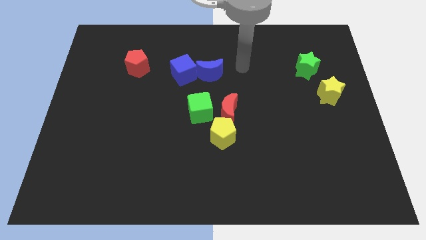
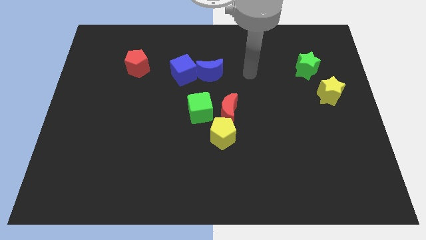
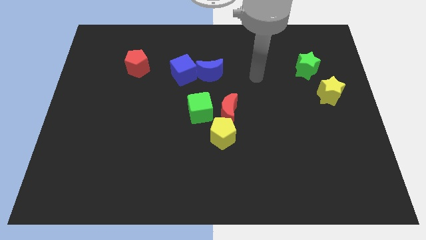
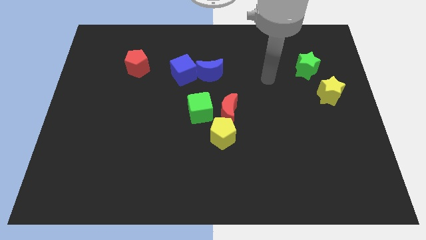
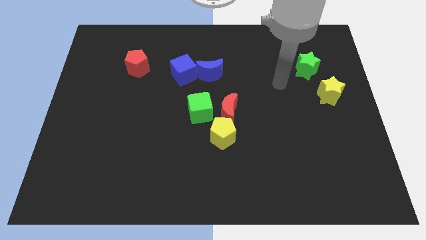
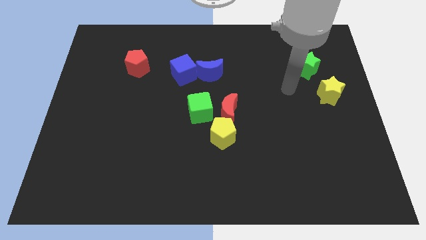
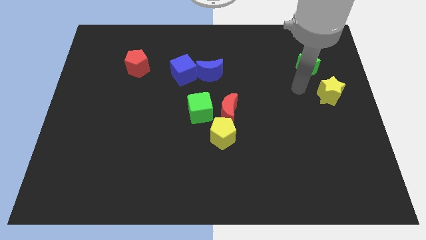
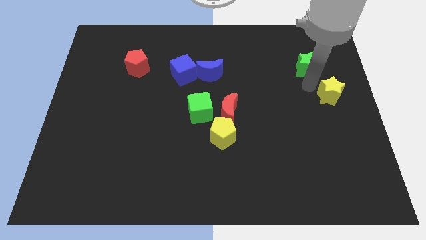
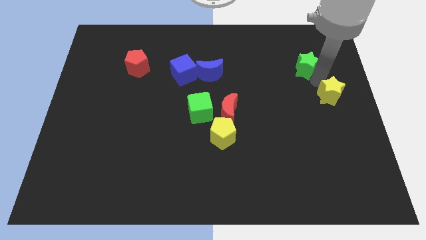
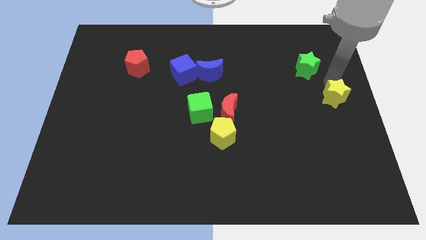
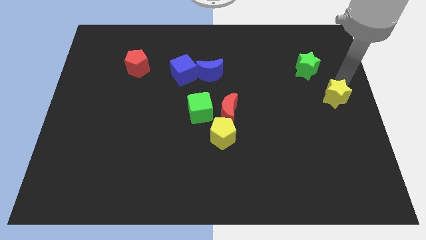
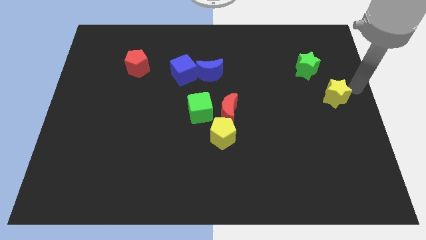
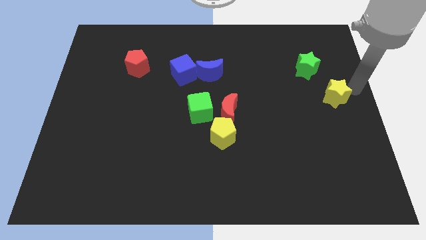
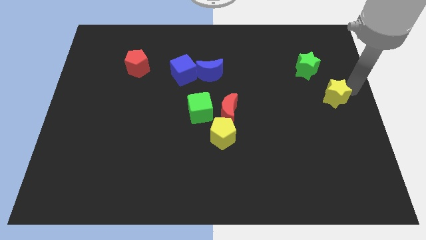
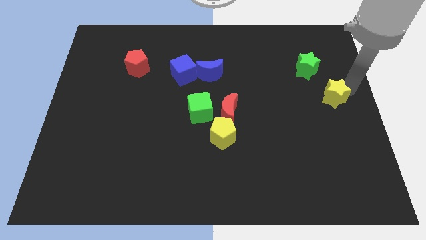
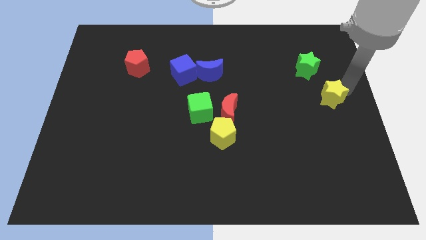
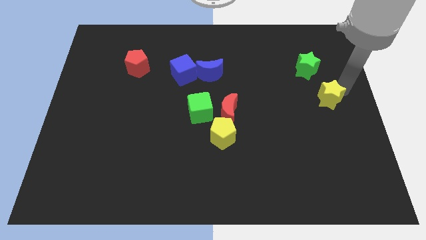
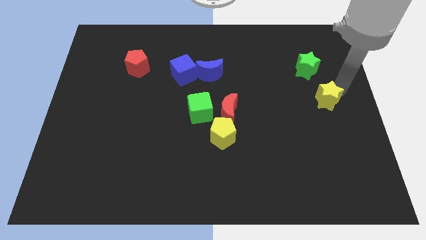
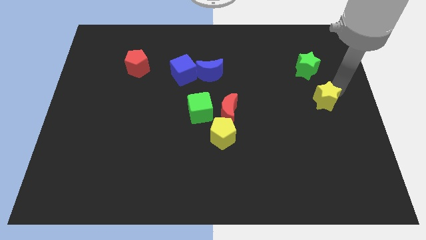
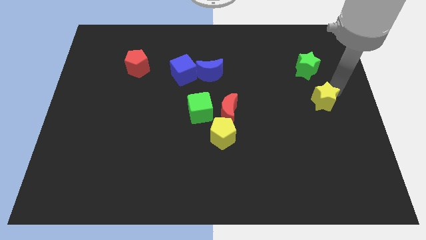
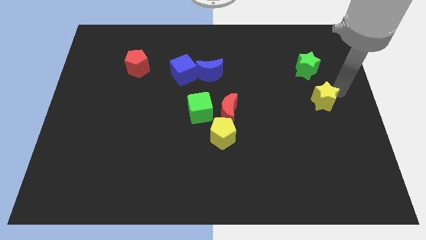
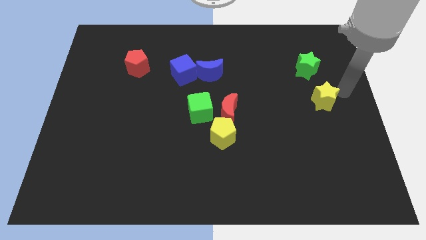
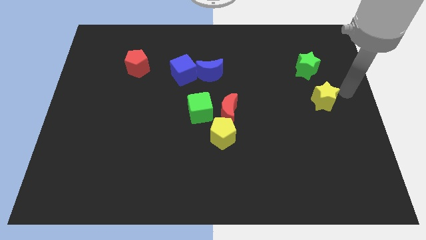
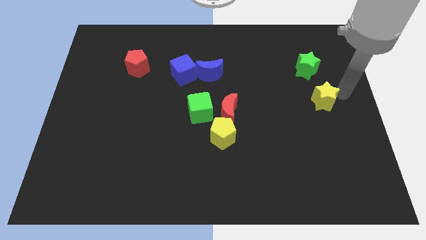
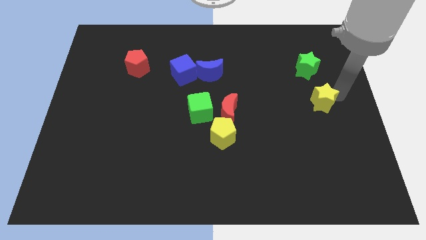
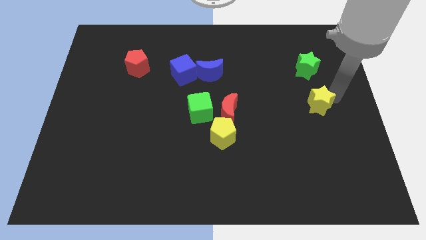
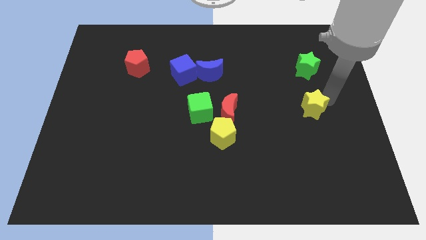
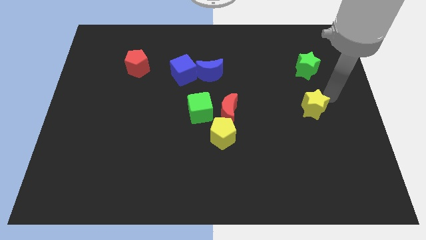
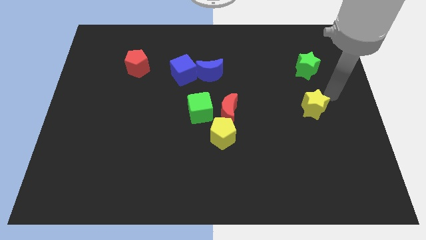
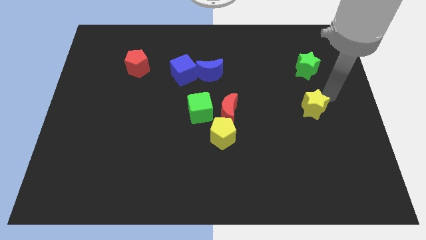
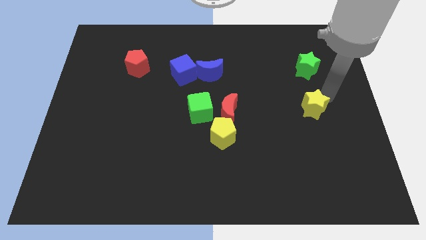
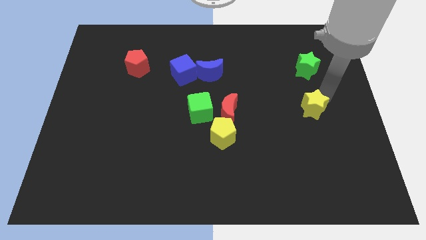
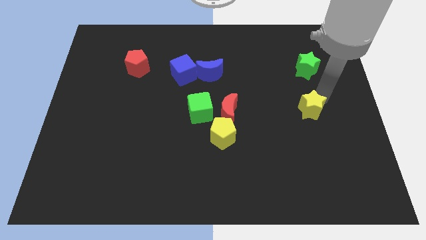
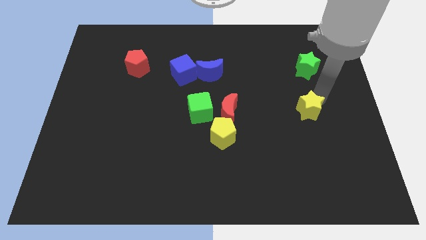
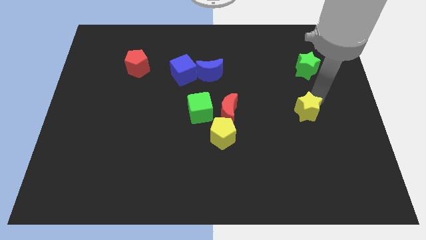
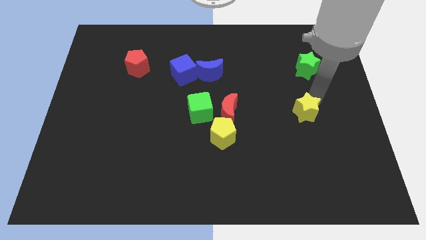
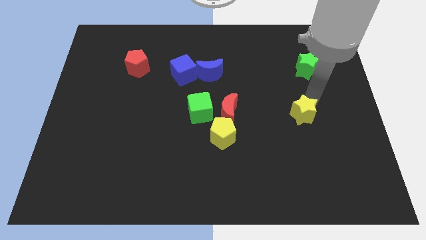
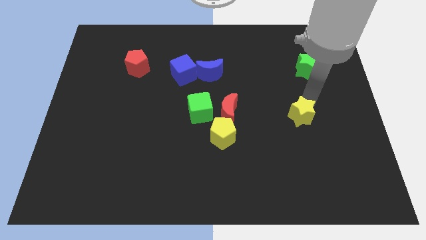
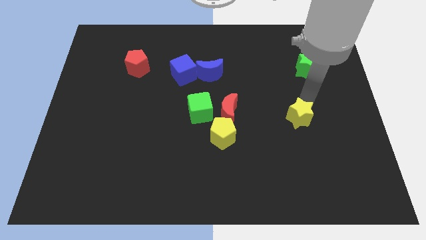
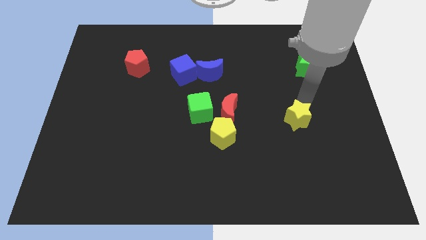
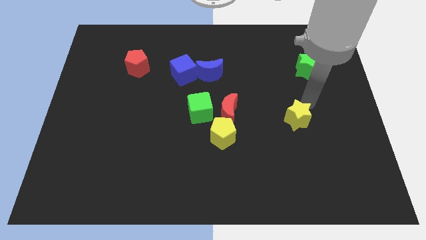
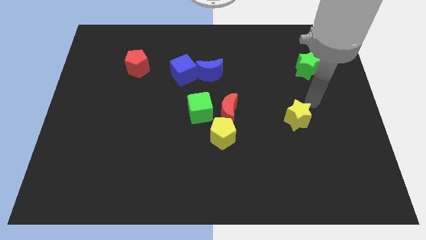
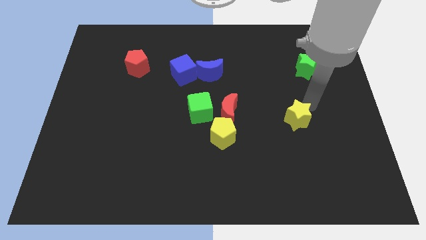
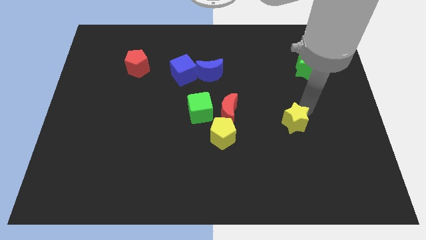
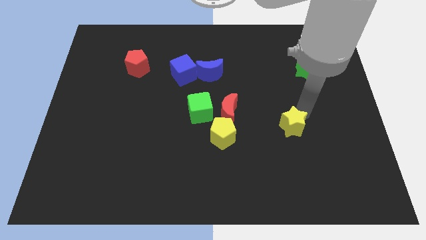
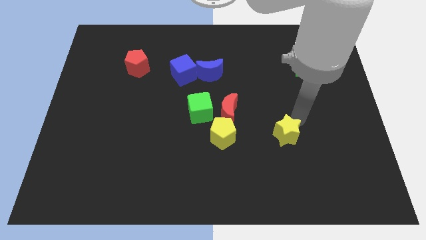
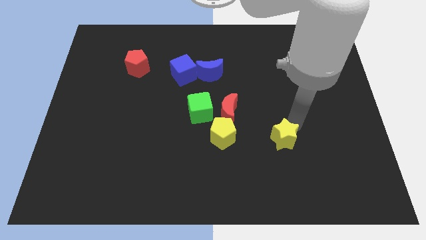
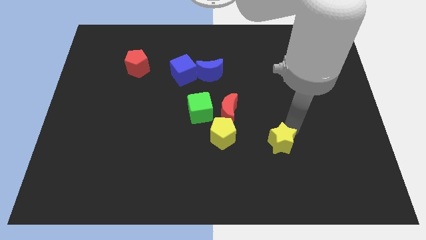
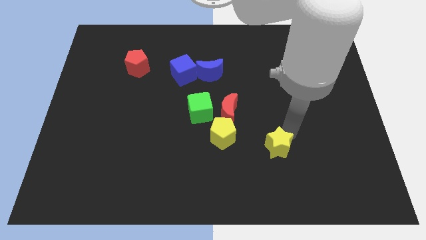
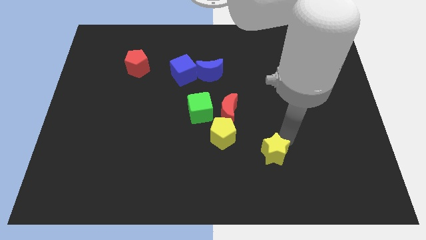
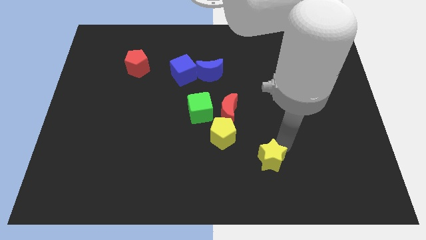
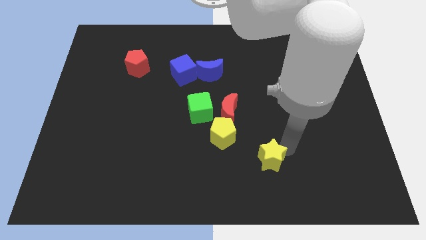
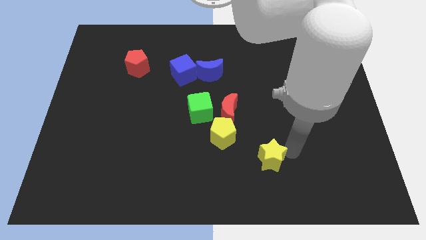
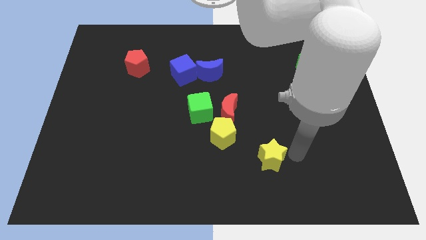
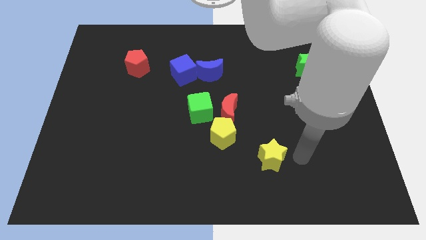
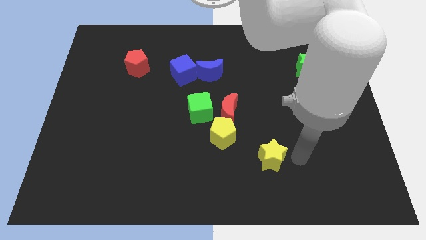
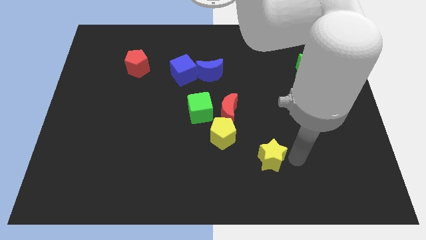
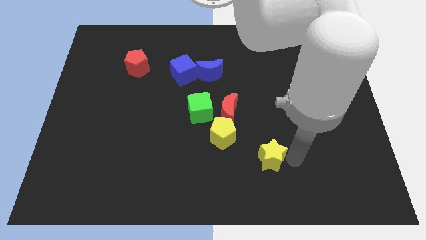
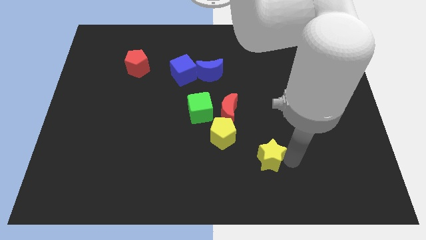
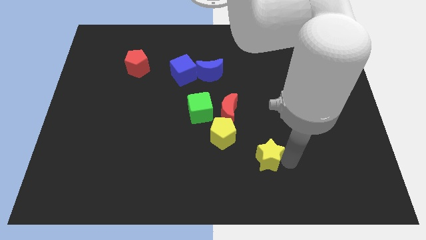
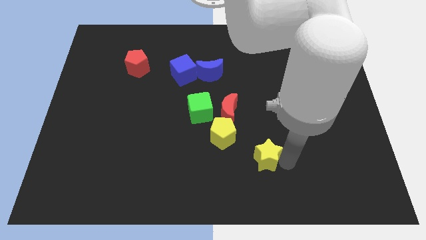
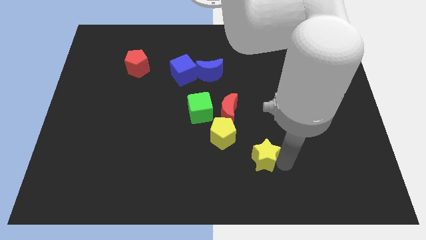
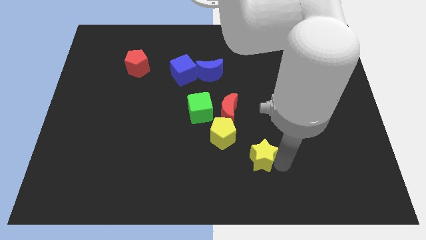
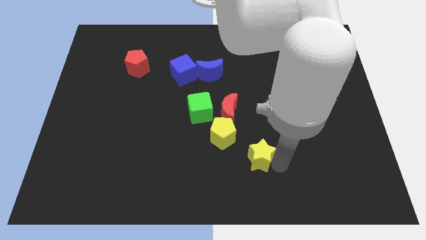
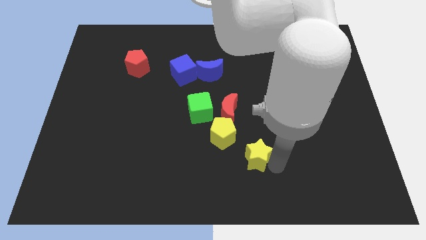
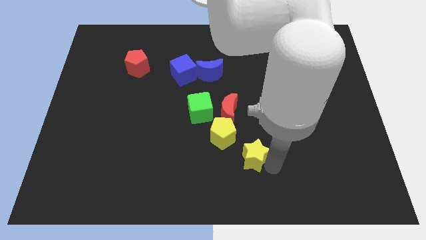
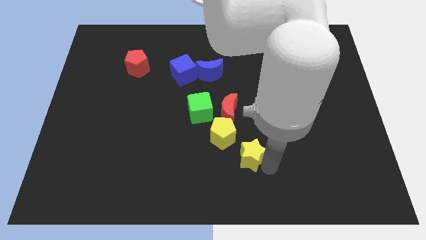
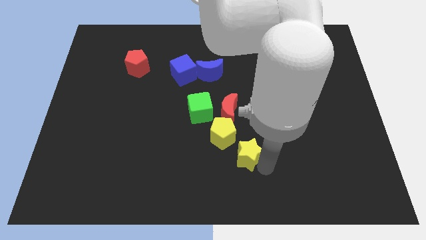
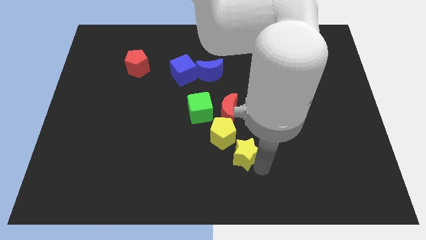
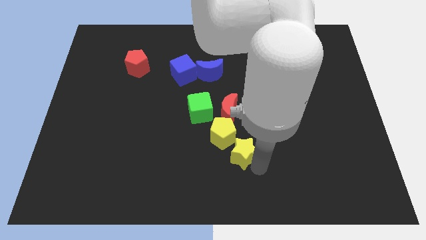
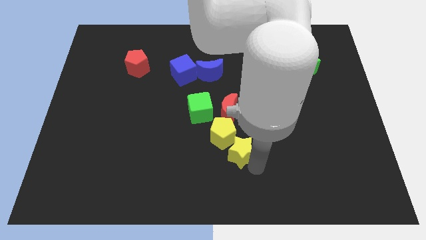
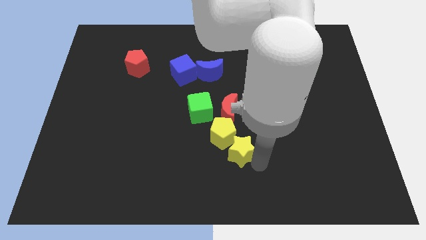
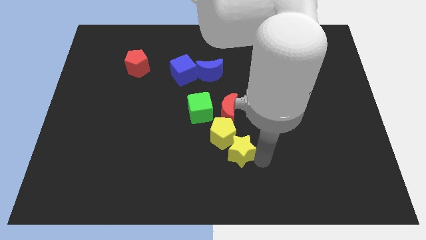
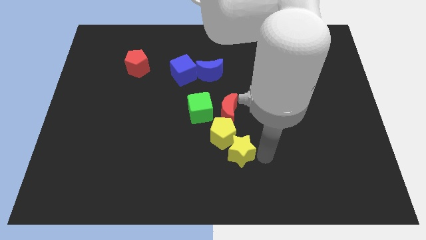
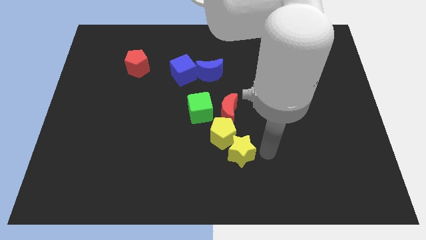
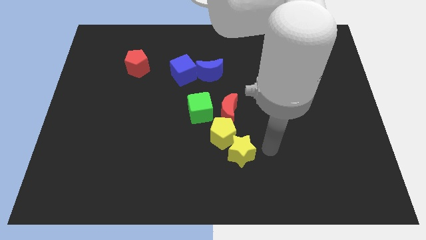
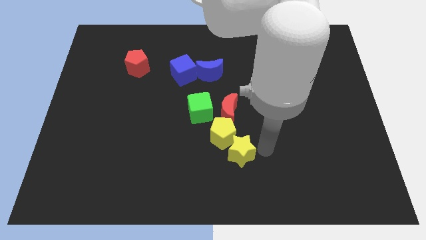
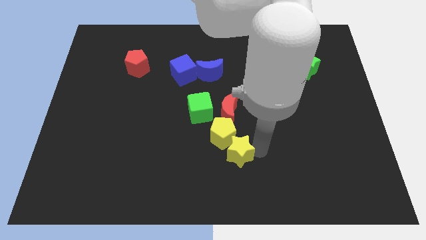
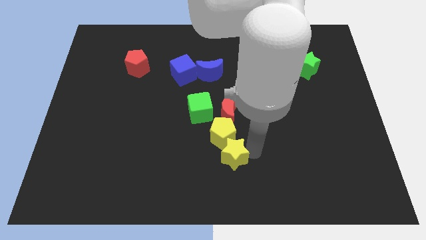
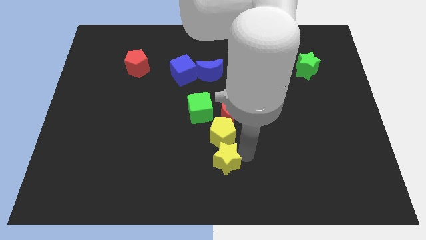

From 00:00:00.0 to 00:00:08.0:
move the yellow star to the bottom left side of the yellow pentagon
